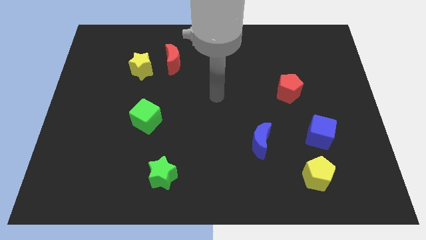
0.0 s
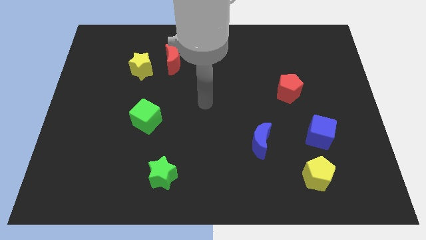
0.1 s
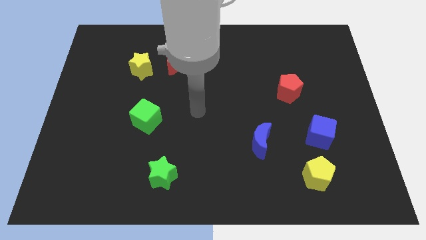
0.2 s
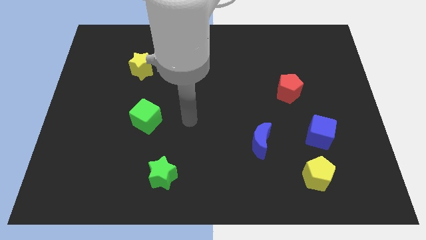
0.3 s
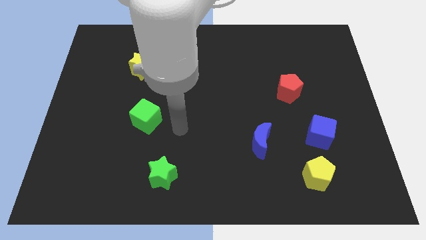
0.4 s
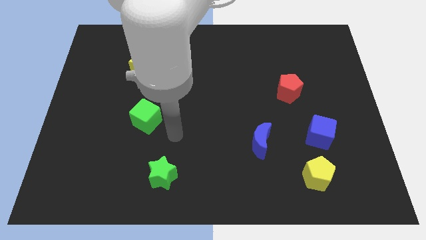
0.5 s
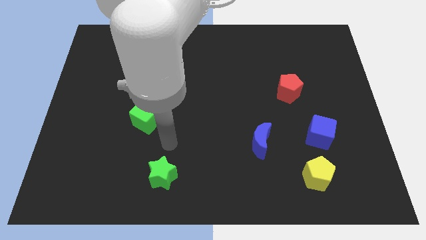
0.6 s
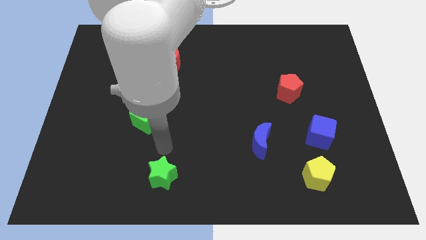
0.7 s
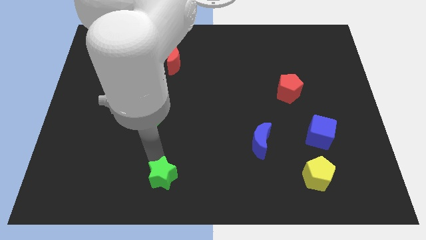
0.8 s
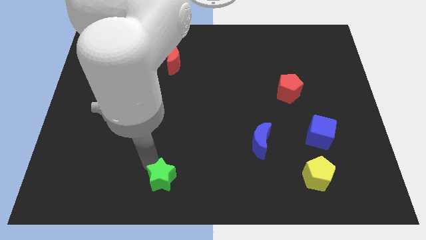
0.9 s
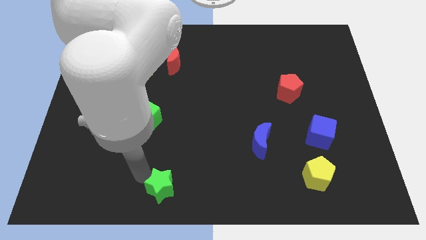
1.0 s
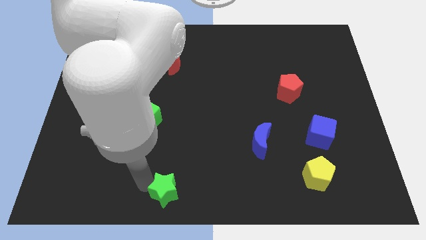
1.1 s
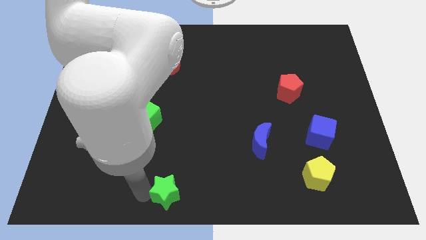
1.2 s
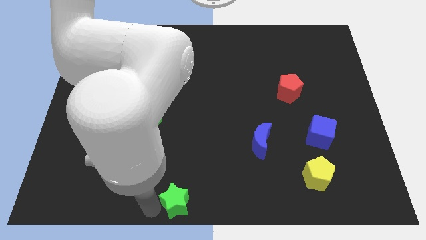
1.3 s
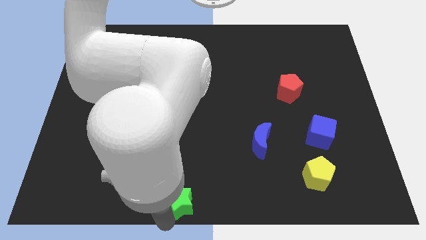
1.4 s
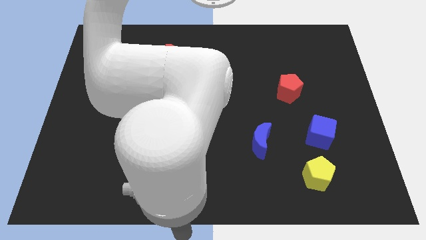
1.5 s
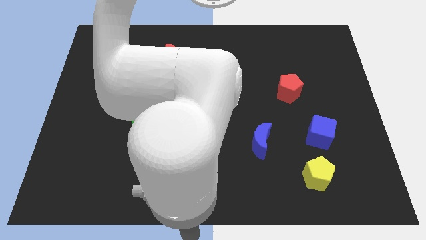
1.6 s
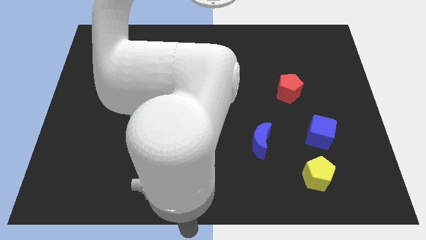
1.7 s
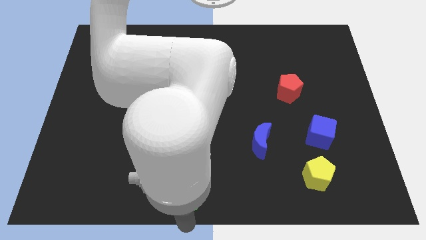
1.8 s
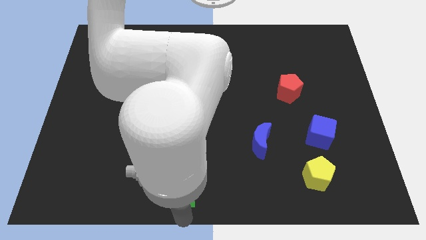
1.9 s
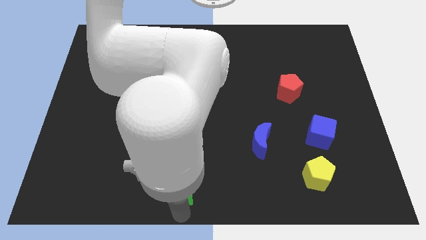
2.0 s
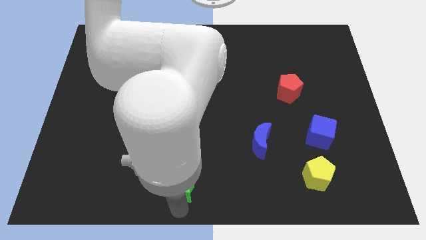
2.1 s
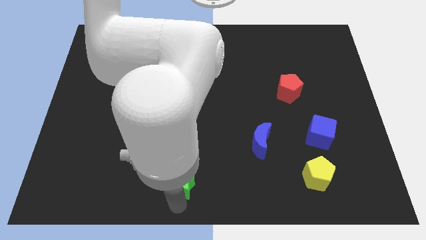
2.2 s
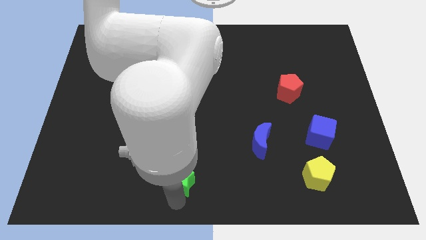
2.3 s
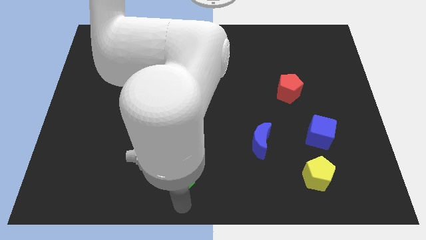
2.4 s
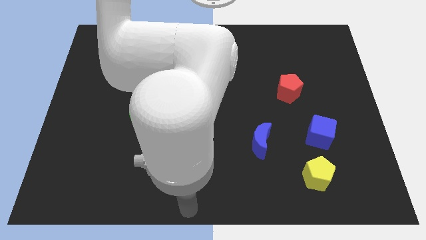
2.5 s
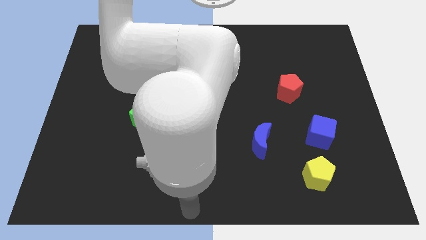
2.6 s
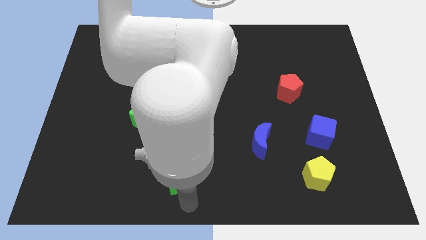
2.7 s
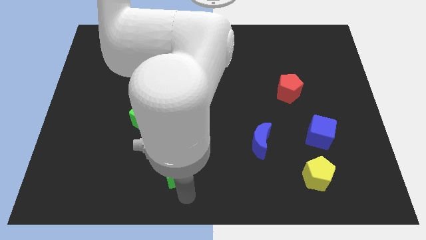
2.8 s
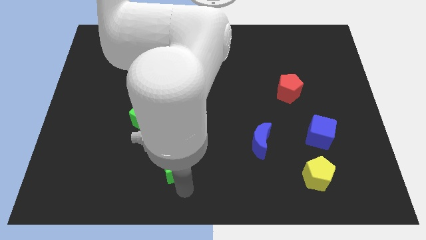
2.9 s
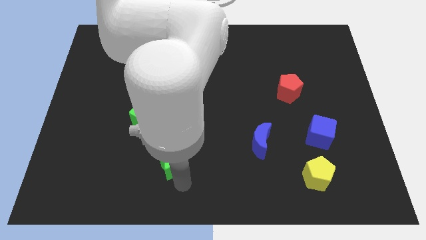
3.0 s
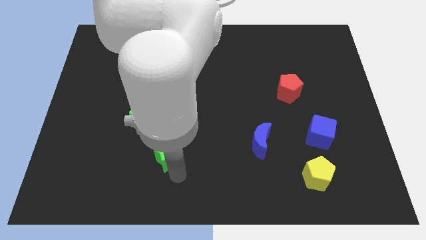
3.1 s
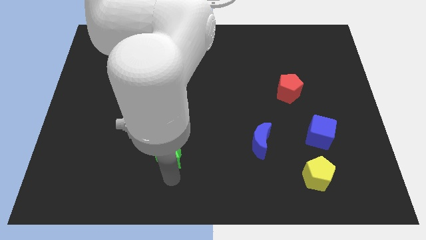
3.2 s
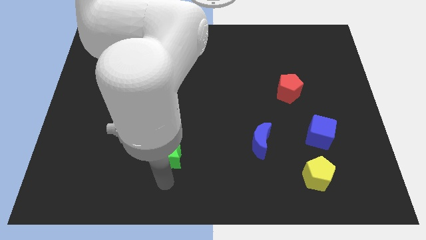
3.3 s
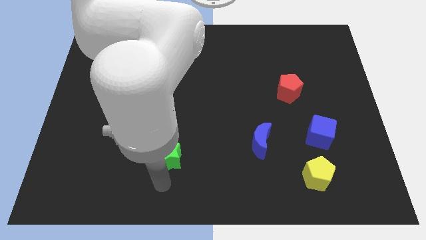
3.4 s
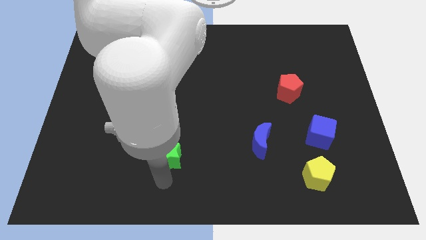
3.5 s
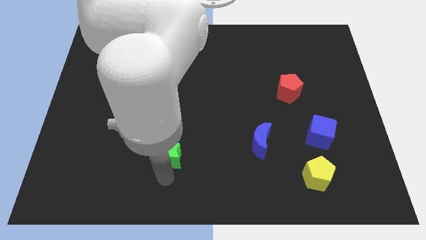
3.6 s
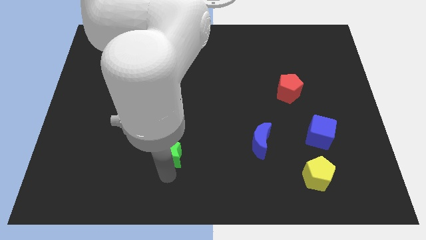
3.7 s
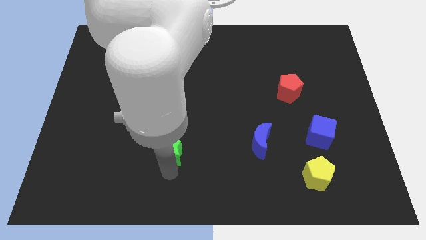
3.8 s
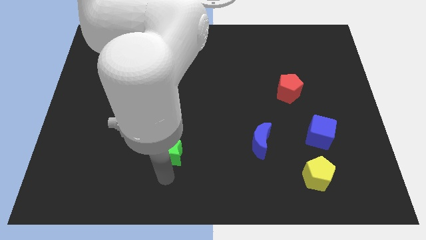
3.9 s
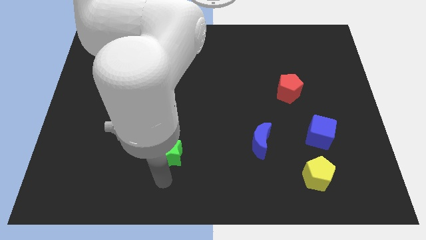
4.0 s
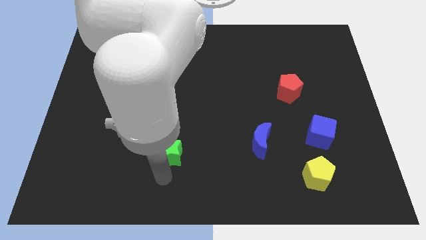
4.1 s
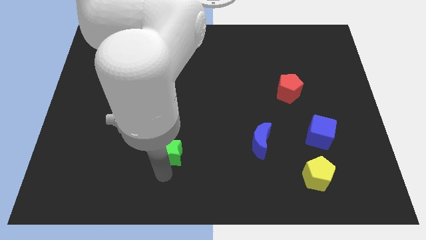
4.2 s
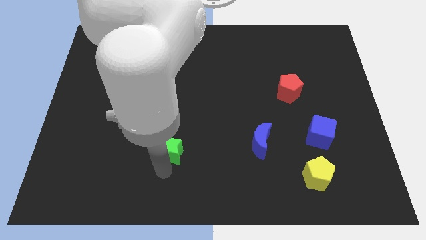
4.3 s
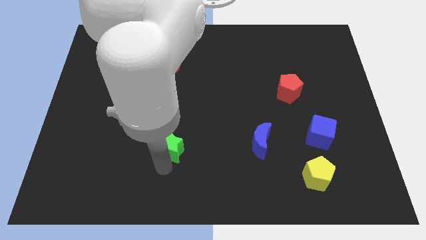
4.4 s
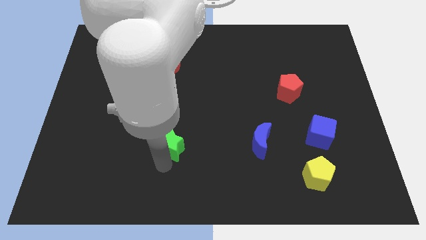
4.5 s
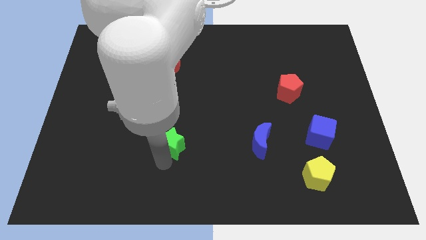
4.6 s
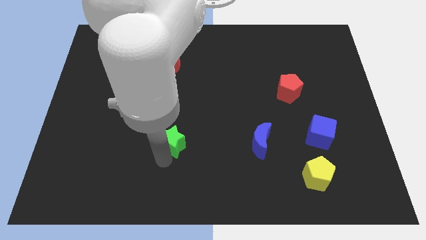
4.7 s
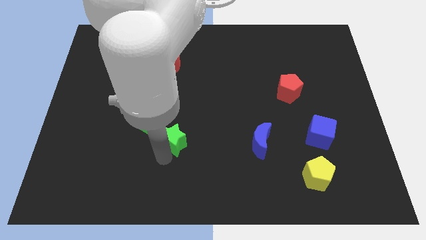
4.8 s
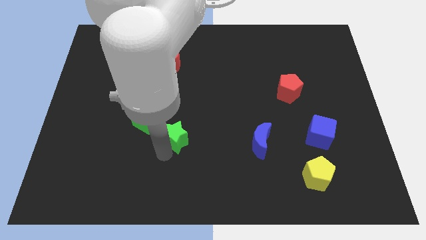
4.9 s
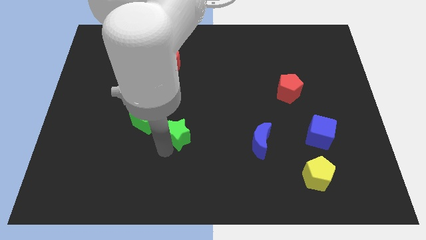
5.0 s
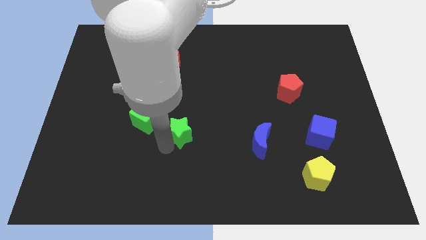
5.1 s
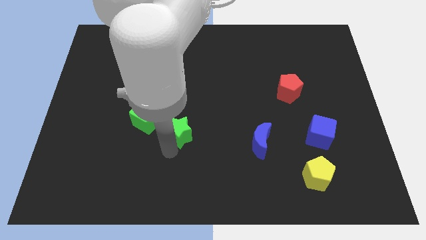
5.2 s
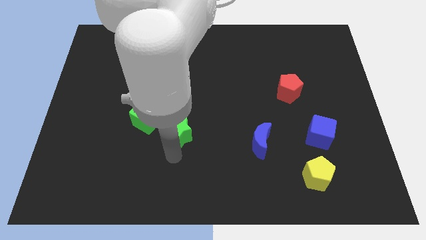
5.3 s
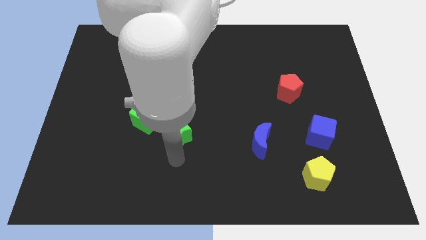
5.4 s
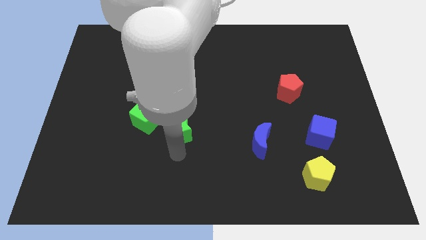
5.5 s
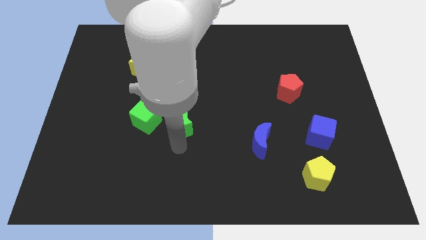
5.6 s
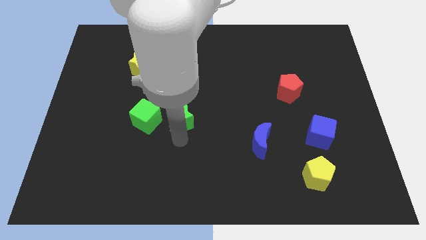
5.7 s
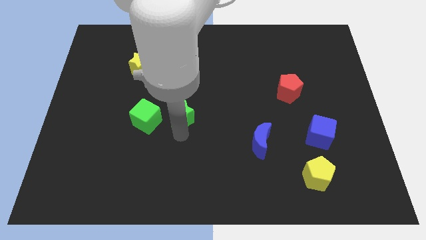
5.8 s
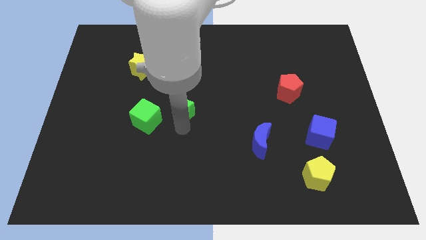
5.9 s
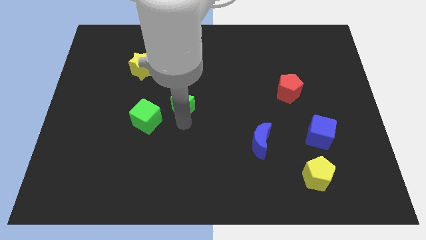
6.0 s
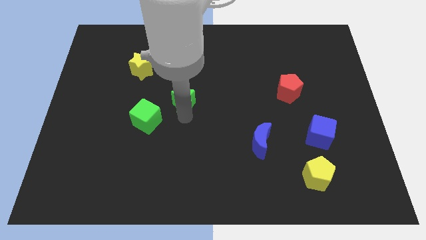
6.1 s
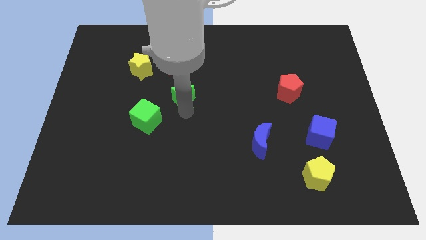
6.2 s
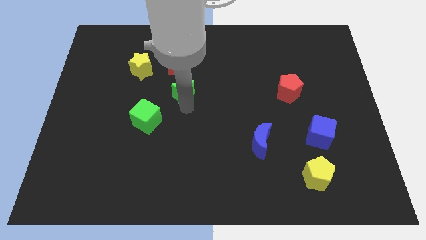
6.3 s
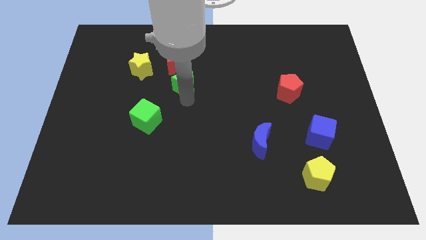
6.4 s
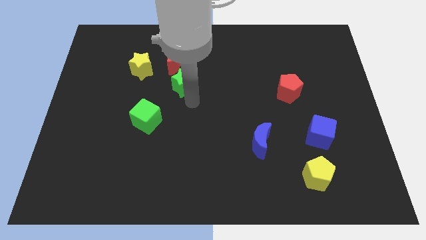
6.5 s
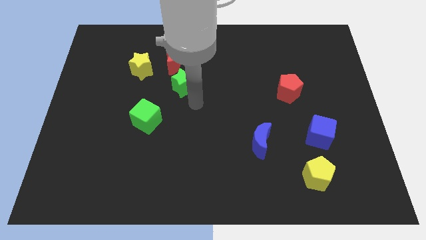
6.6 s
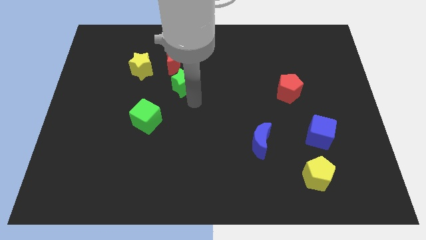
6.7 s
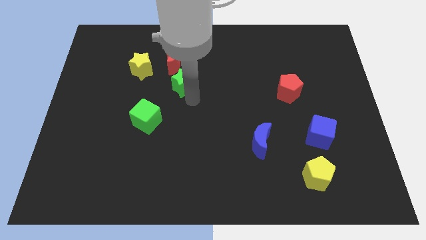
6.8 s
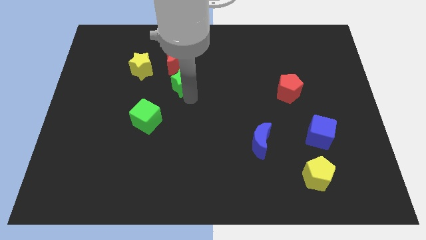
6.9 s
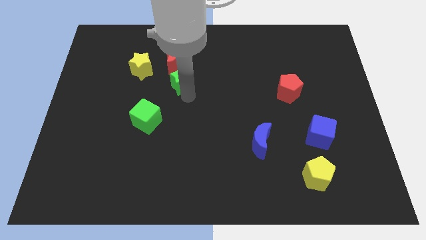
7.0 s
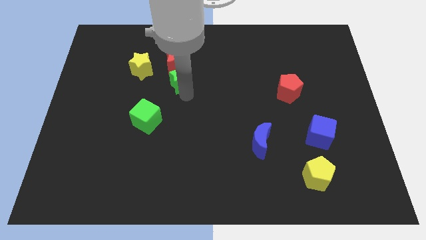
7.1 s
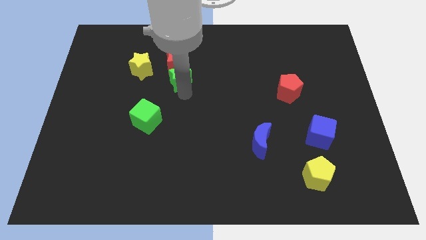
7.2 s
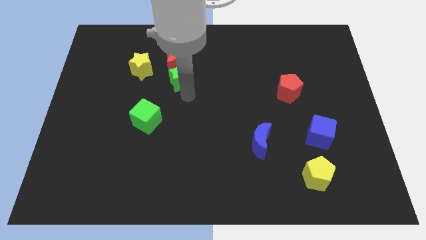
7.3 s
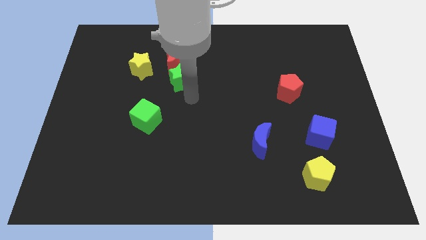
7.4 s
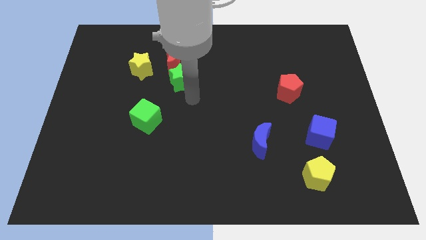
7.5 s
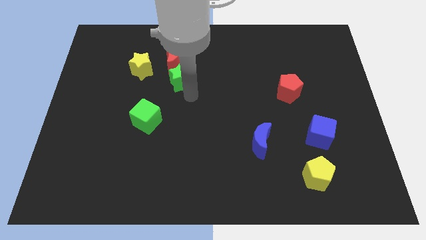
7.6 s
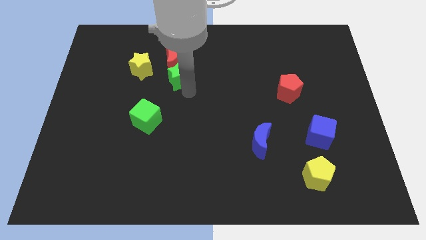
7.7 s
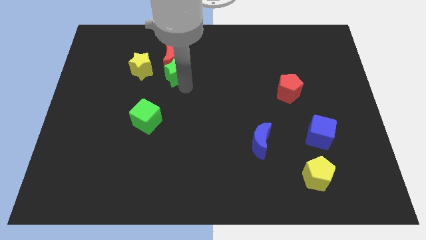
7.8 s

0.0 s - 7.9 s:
slide the green star to the red moon
